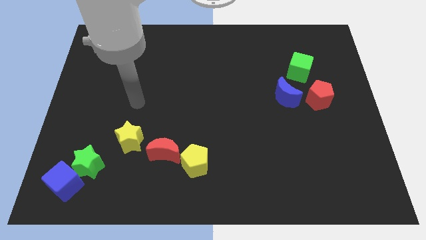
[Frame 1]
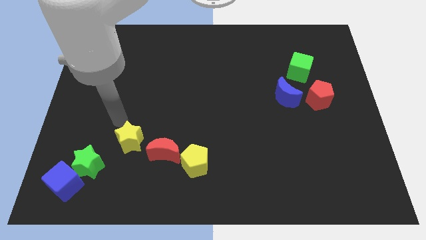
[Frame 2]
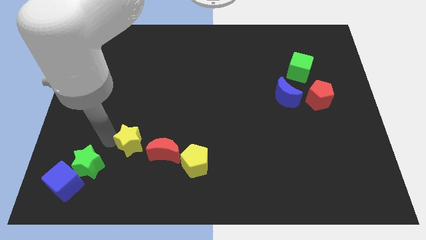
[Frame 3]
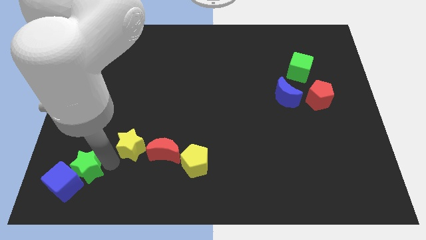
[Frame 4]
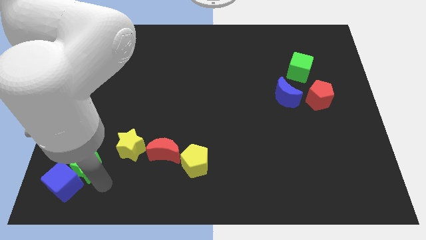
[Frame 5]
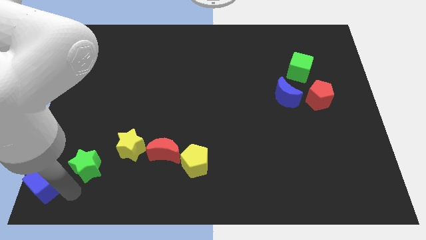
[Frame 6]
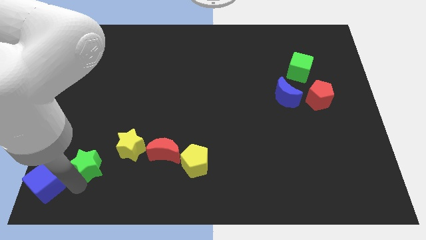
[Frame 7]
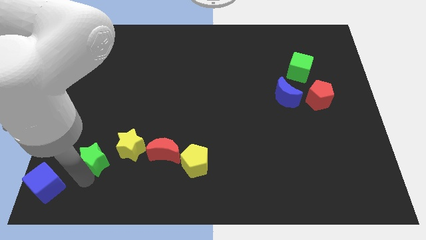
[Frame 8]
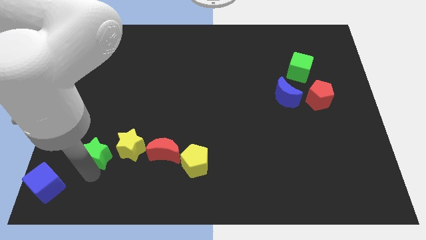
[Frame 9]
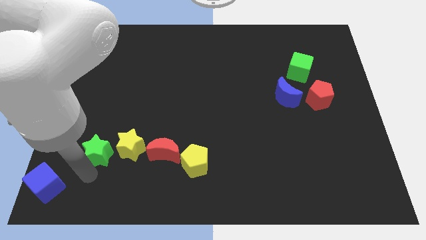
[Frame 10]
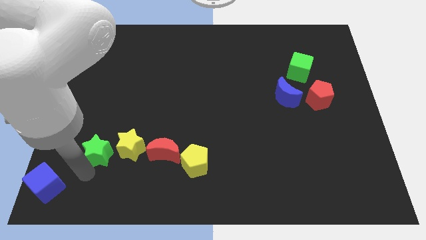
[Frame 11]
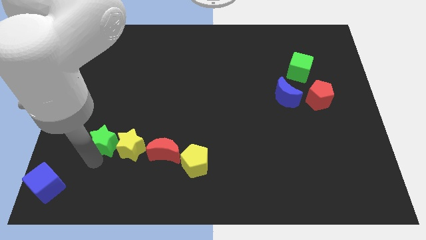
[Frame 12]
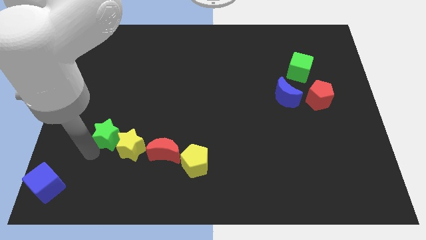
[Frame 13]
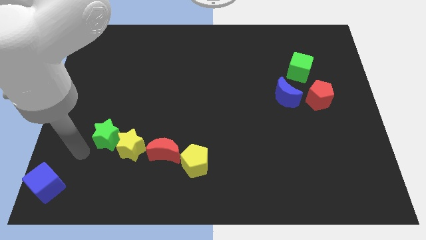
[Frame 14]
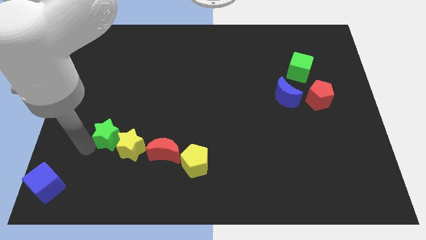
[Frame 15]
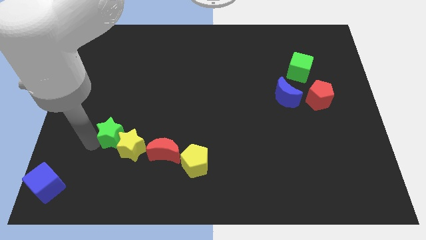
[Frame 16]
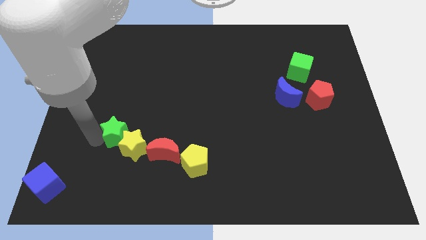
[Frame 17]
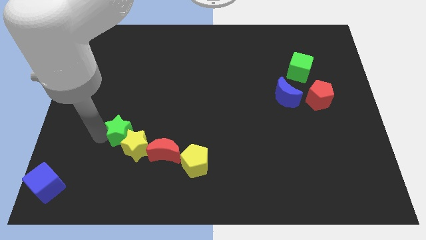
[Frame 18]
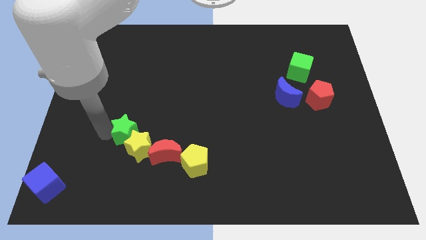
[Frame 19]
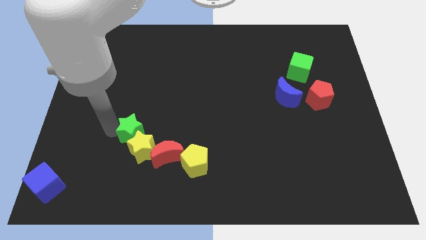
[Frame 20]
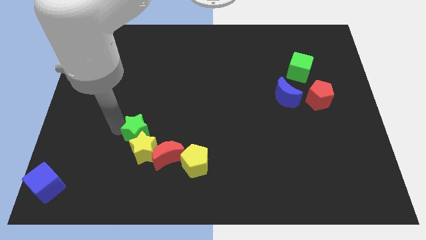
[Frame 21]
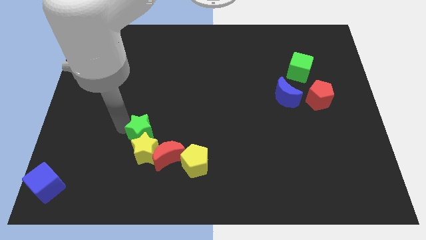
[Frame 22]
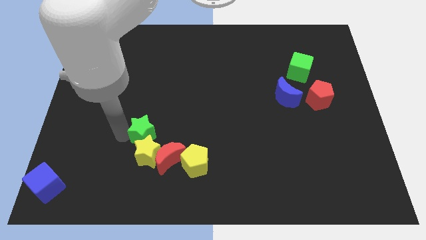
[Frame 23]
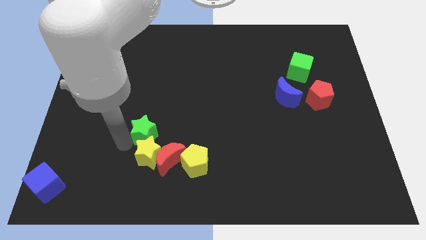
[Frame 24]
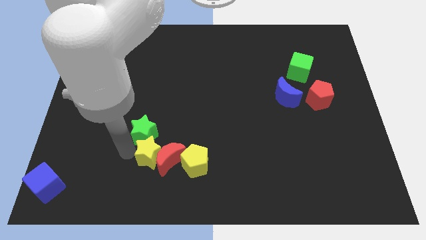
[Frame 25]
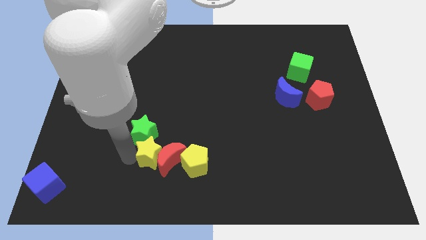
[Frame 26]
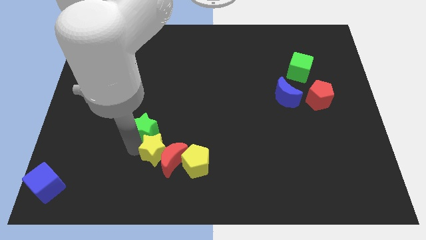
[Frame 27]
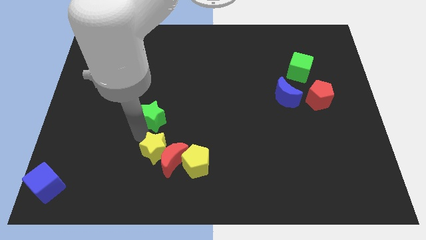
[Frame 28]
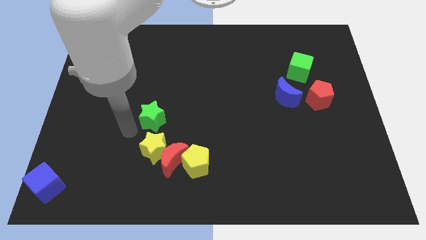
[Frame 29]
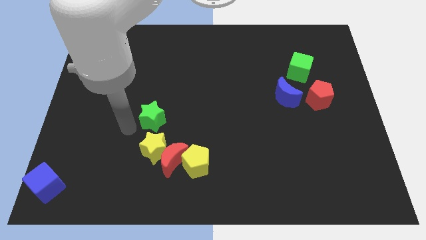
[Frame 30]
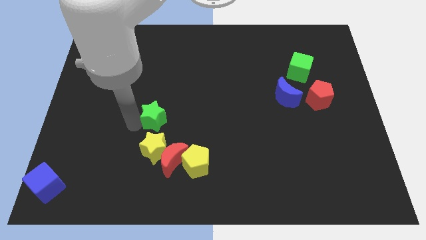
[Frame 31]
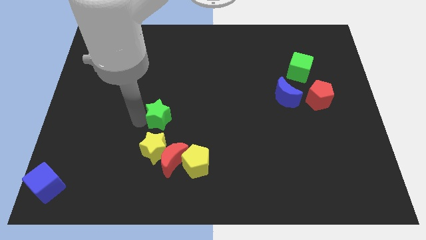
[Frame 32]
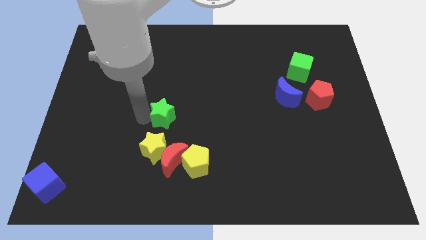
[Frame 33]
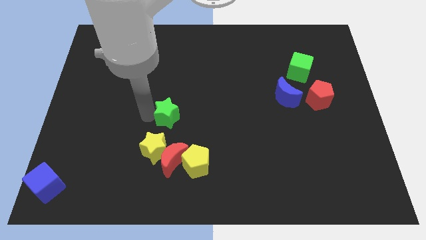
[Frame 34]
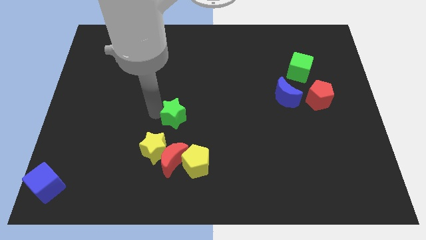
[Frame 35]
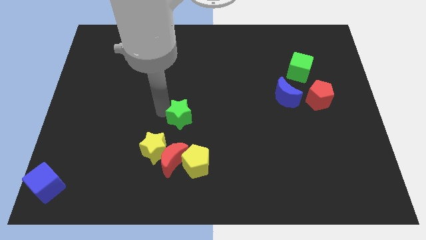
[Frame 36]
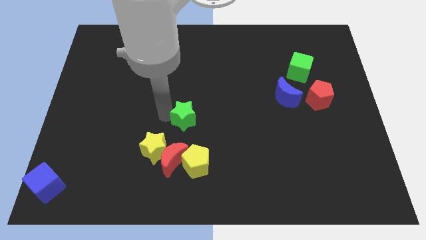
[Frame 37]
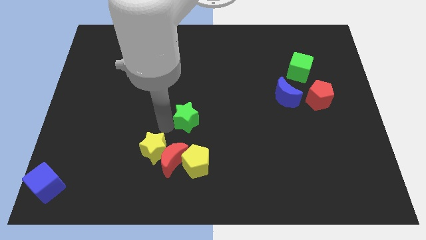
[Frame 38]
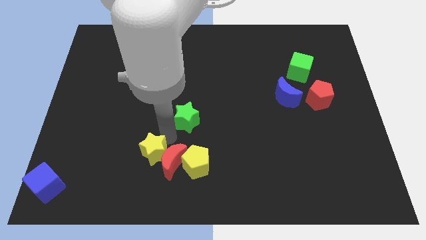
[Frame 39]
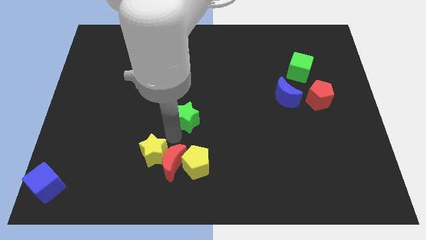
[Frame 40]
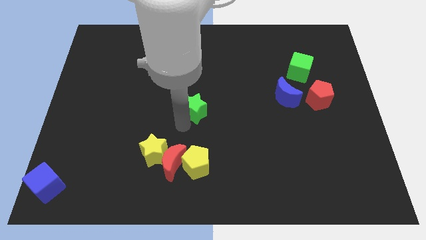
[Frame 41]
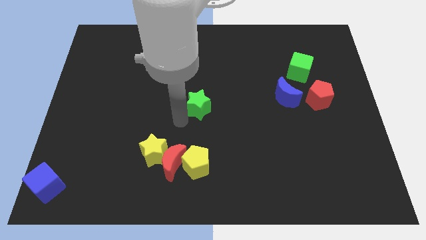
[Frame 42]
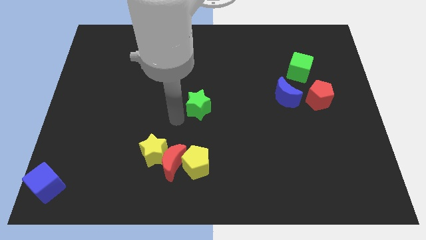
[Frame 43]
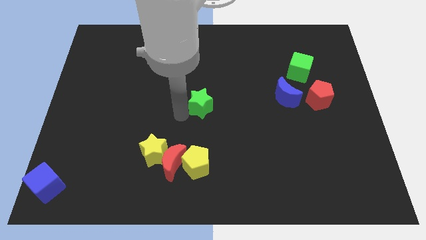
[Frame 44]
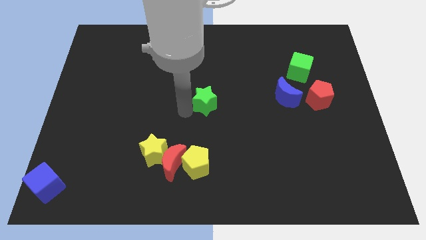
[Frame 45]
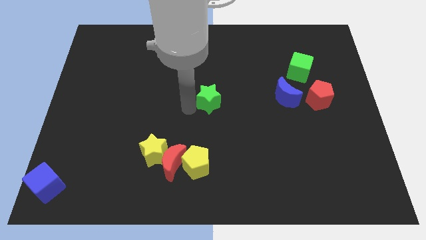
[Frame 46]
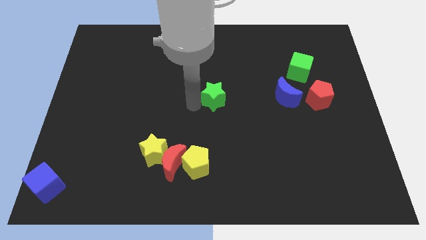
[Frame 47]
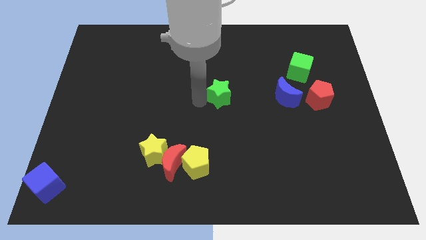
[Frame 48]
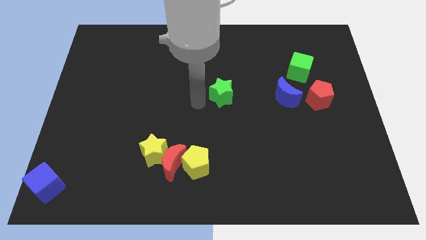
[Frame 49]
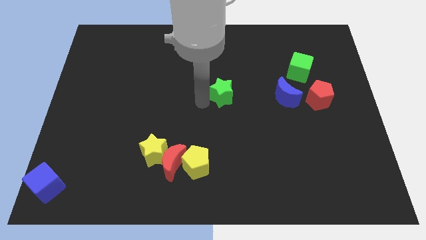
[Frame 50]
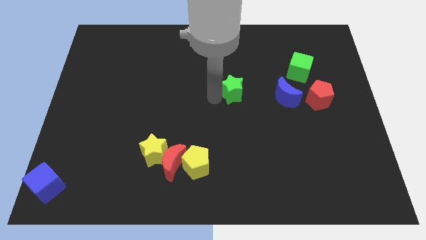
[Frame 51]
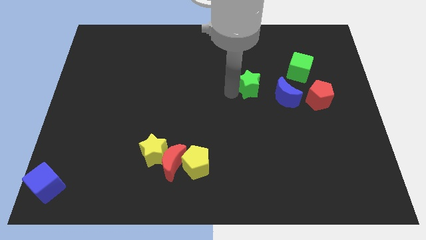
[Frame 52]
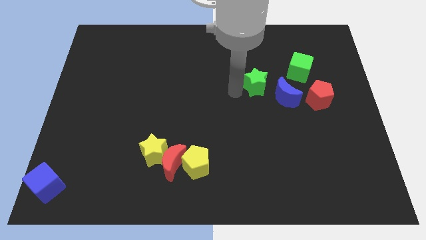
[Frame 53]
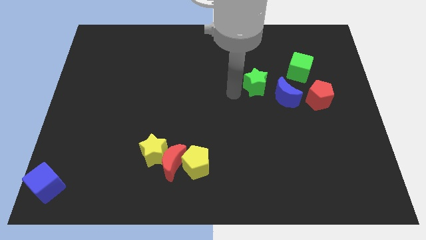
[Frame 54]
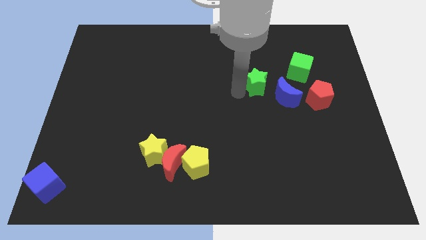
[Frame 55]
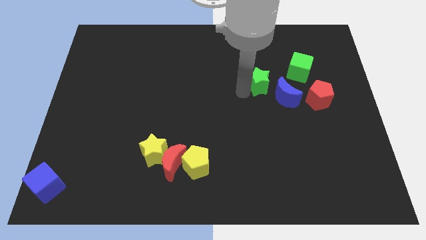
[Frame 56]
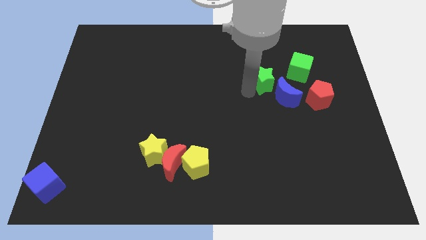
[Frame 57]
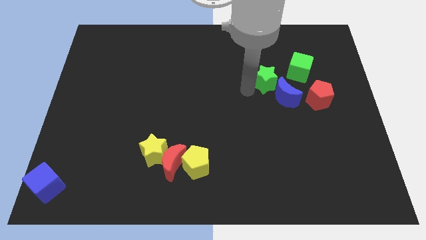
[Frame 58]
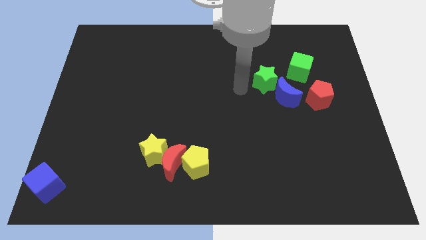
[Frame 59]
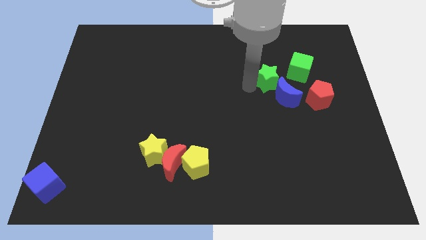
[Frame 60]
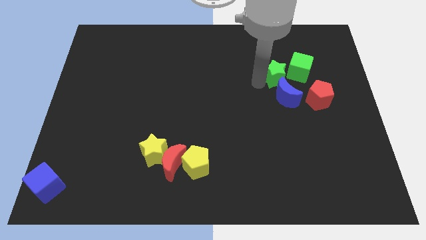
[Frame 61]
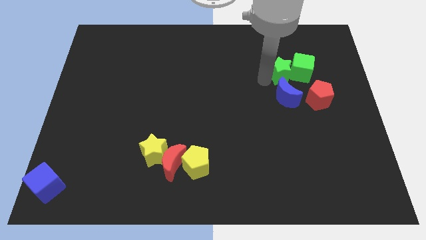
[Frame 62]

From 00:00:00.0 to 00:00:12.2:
slide the green star towards the green cube

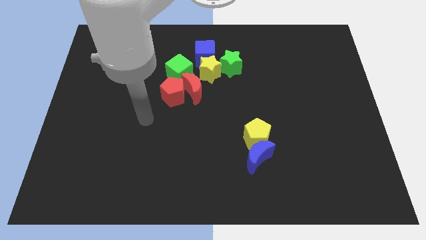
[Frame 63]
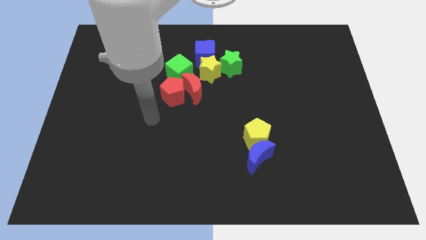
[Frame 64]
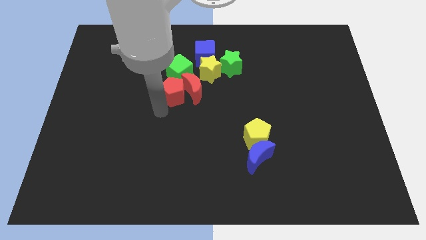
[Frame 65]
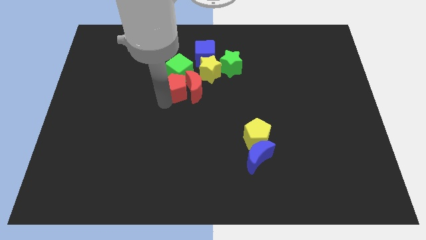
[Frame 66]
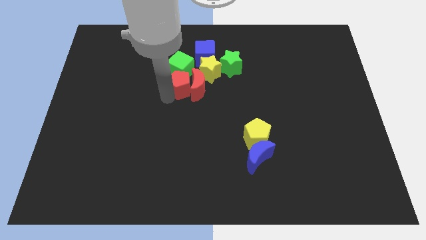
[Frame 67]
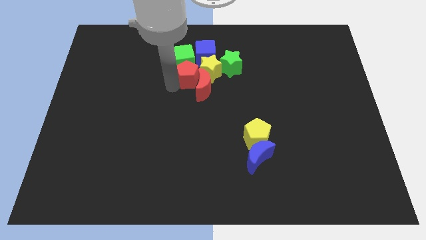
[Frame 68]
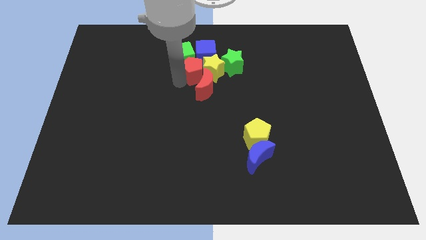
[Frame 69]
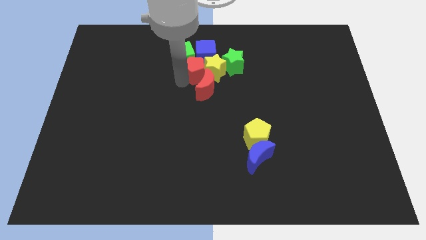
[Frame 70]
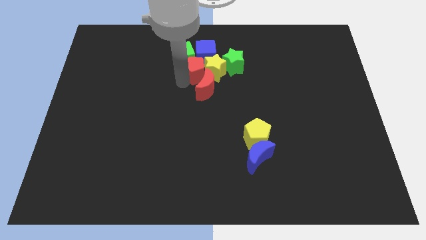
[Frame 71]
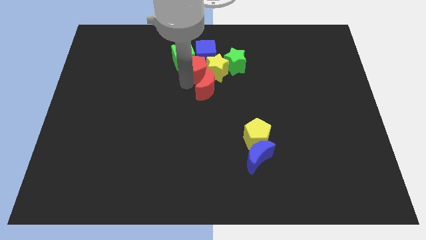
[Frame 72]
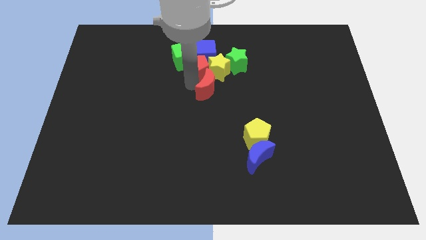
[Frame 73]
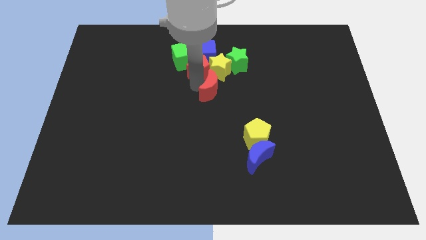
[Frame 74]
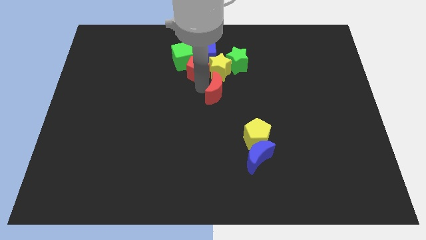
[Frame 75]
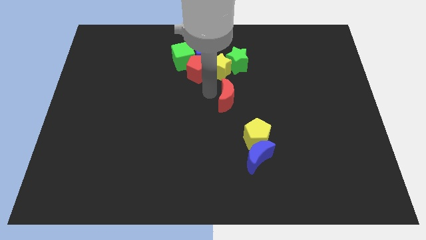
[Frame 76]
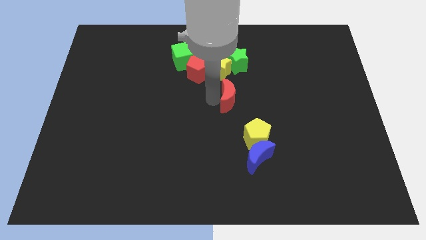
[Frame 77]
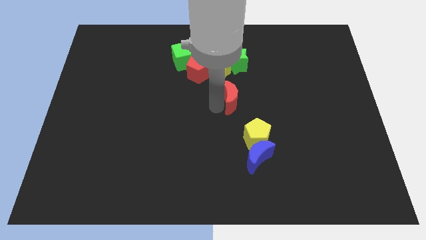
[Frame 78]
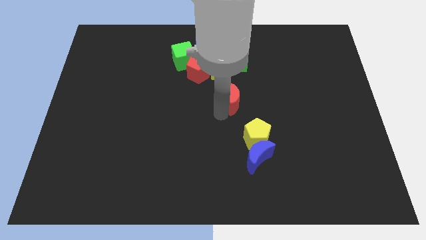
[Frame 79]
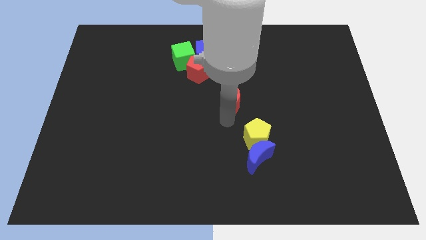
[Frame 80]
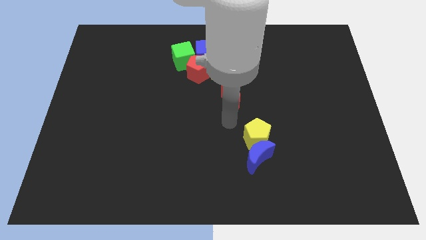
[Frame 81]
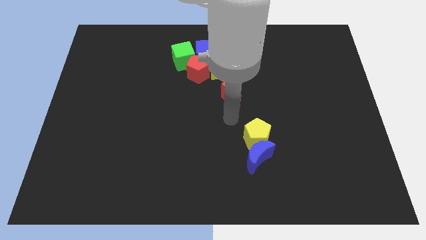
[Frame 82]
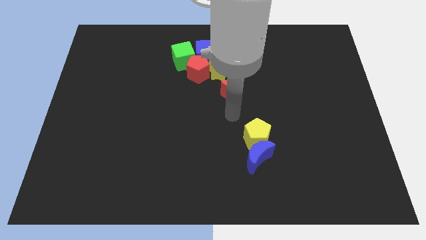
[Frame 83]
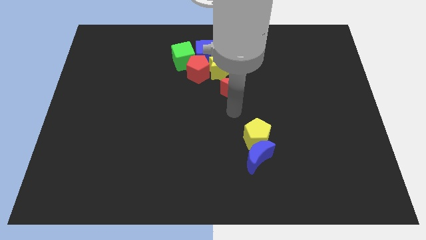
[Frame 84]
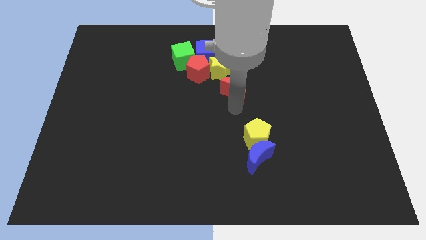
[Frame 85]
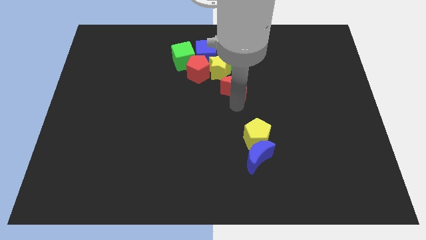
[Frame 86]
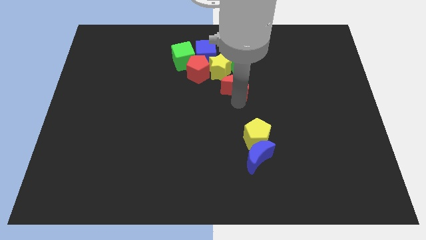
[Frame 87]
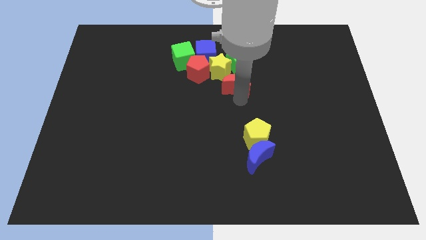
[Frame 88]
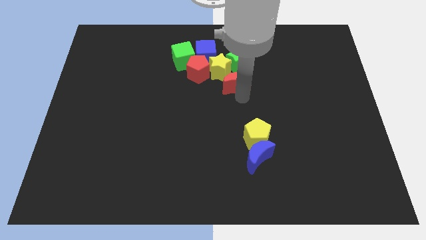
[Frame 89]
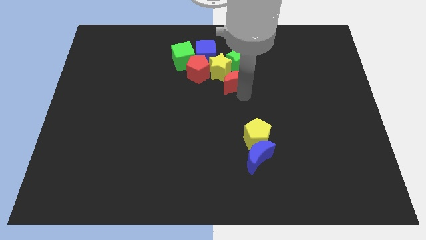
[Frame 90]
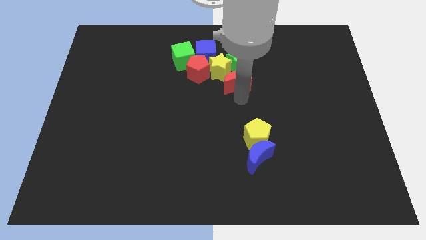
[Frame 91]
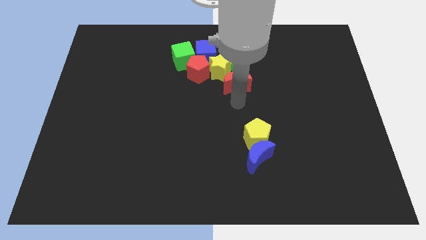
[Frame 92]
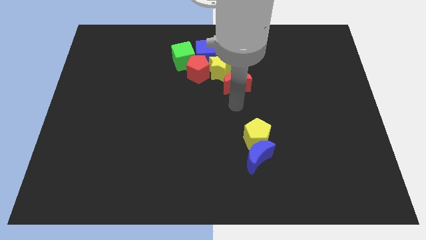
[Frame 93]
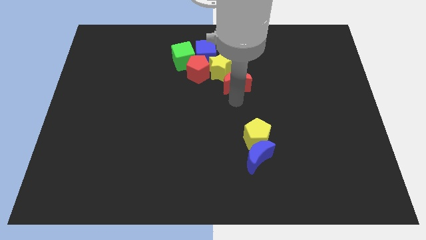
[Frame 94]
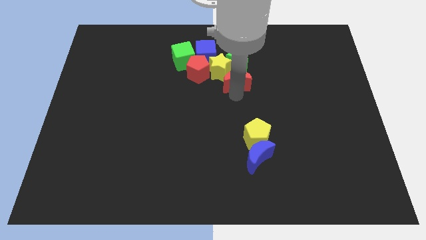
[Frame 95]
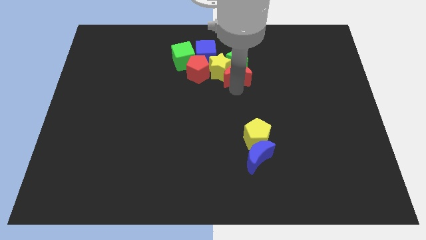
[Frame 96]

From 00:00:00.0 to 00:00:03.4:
push the red moon next to the green star
